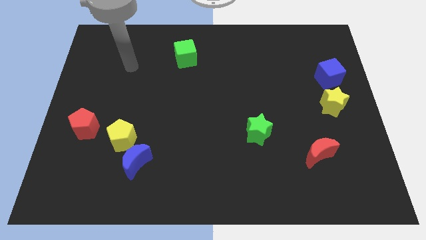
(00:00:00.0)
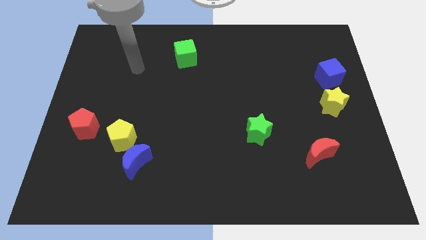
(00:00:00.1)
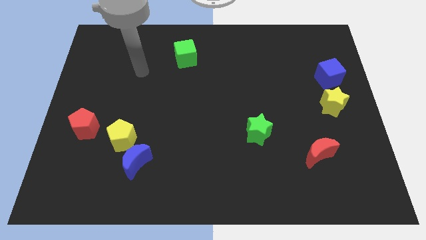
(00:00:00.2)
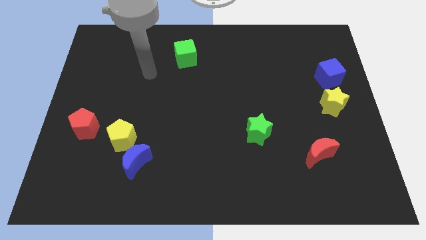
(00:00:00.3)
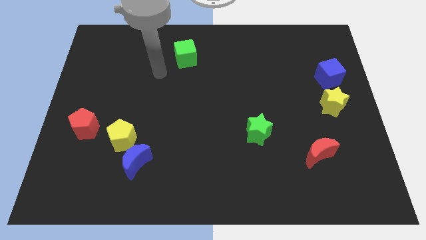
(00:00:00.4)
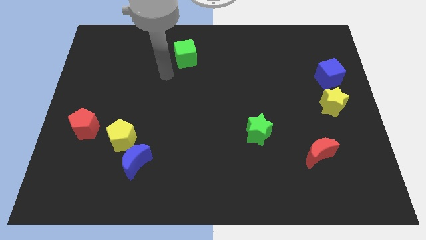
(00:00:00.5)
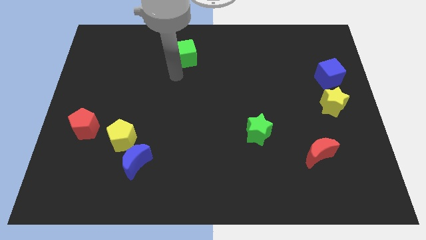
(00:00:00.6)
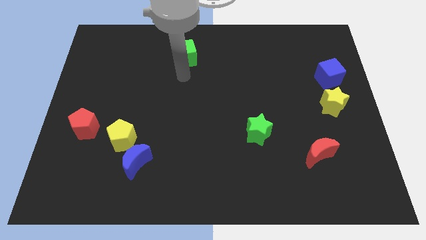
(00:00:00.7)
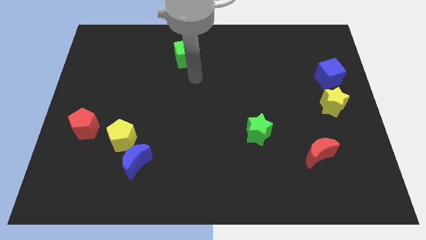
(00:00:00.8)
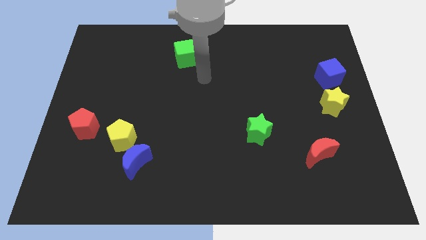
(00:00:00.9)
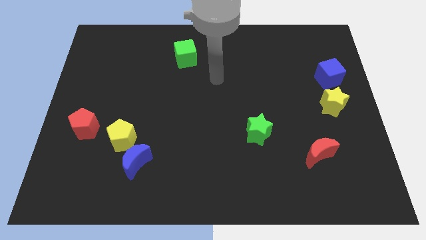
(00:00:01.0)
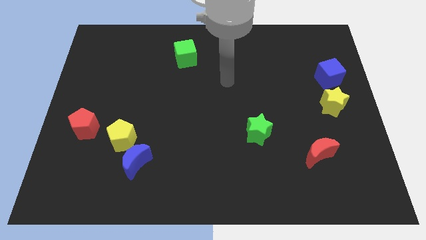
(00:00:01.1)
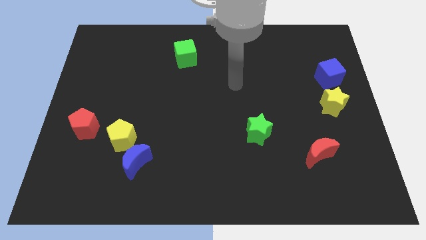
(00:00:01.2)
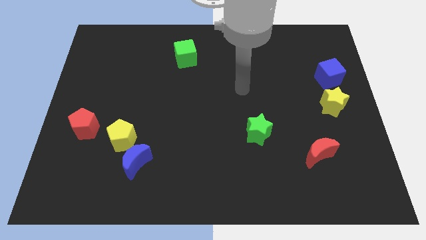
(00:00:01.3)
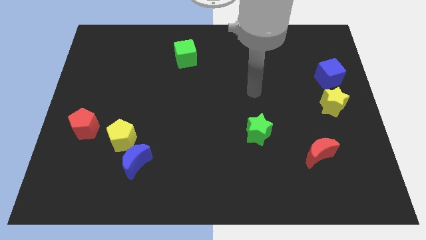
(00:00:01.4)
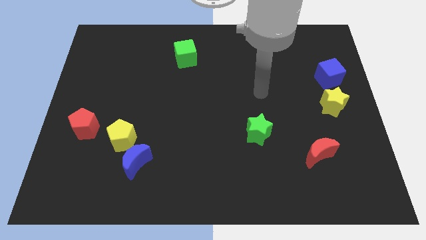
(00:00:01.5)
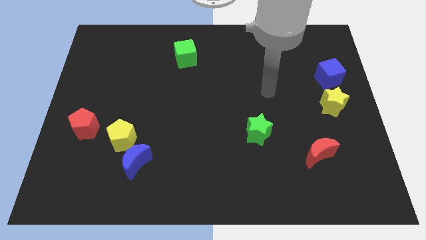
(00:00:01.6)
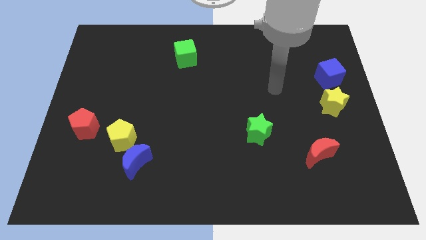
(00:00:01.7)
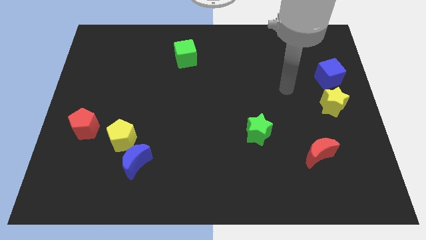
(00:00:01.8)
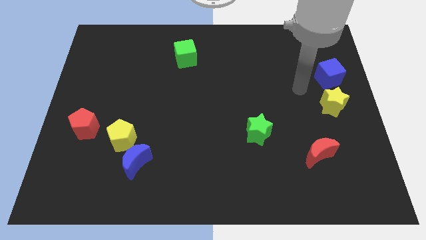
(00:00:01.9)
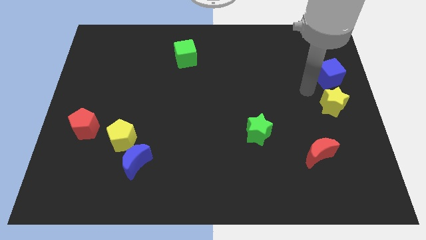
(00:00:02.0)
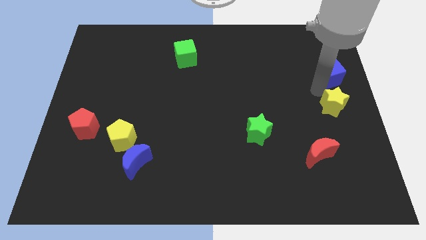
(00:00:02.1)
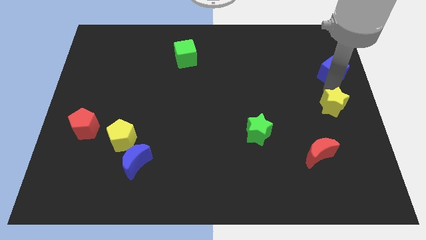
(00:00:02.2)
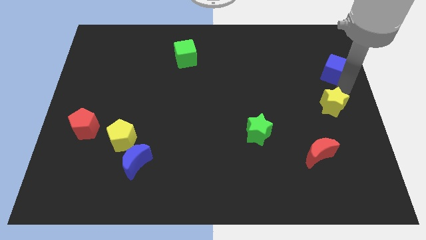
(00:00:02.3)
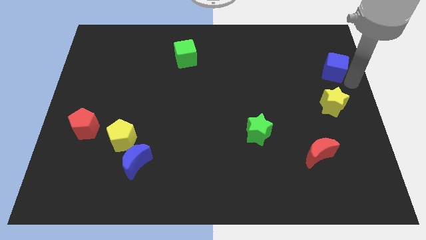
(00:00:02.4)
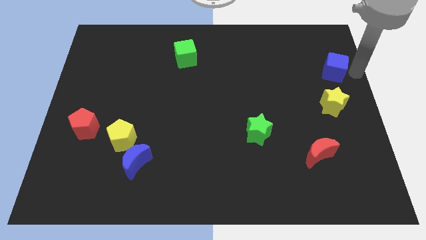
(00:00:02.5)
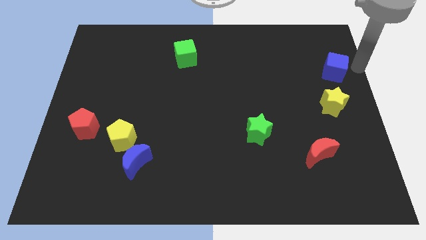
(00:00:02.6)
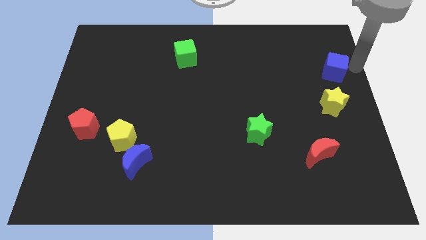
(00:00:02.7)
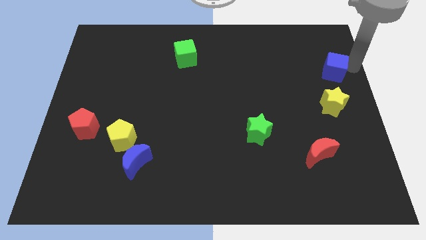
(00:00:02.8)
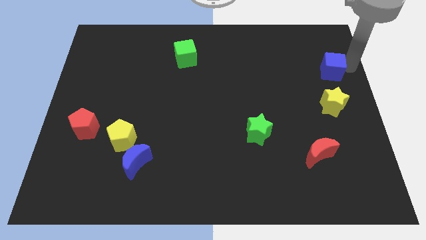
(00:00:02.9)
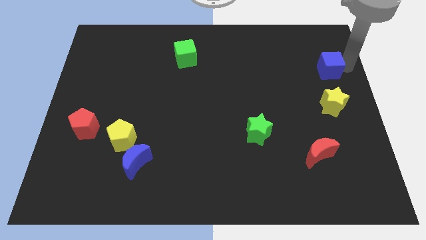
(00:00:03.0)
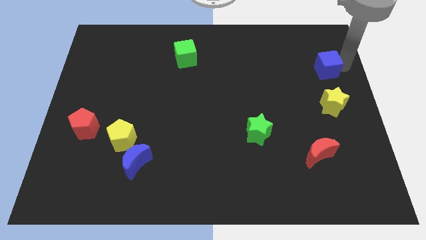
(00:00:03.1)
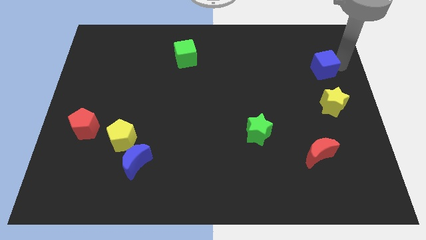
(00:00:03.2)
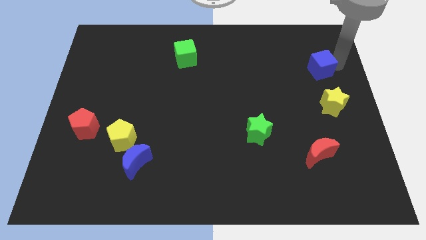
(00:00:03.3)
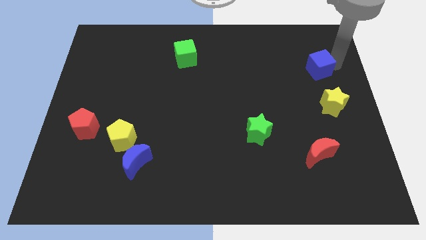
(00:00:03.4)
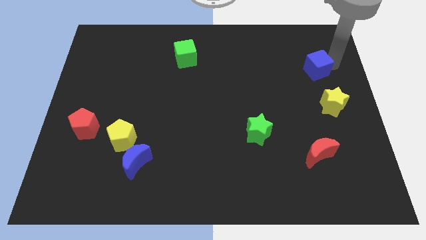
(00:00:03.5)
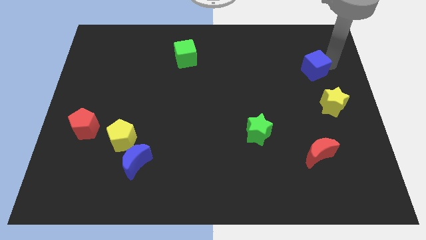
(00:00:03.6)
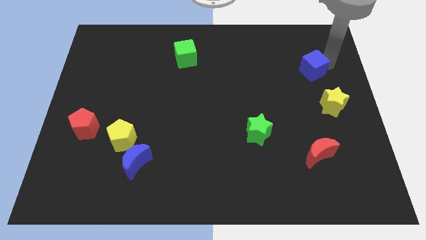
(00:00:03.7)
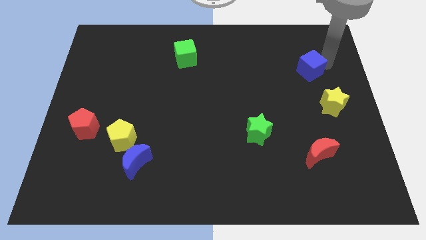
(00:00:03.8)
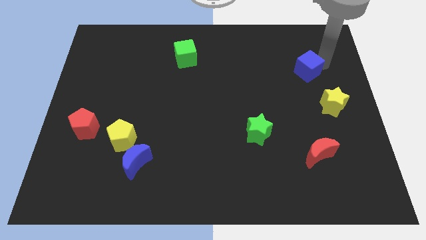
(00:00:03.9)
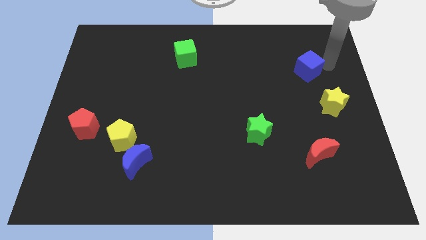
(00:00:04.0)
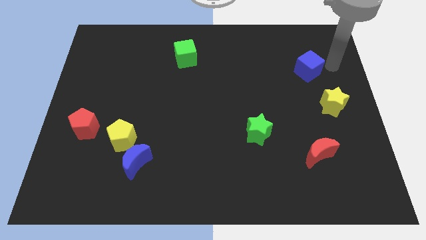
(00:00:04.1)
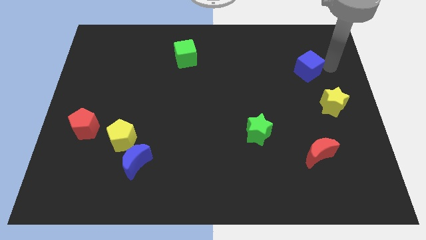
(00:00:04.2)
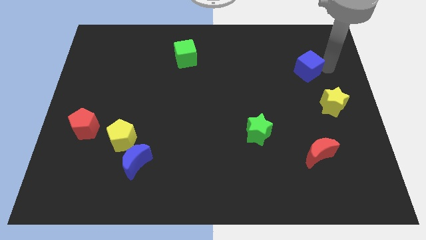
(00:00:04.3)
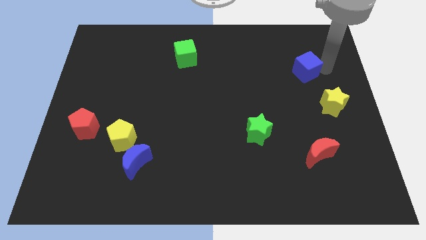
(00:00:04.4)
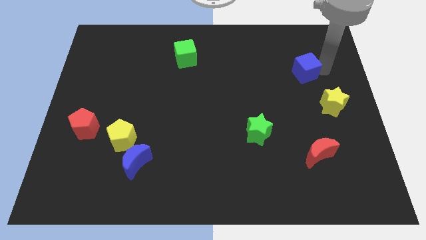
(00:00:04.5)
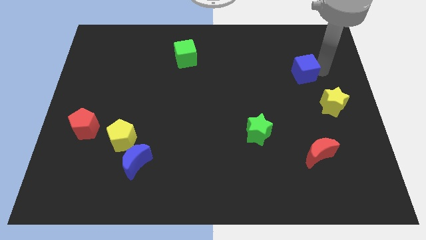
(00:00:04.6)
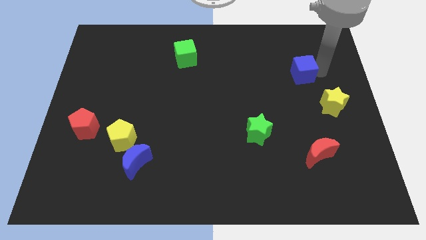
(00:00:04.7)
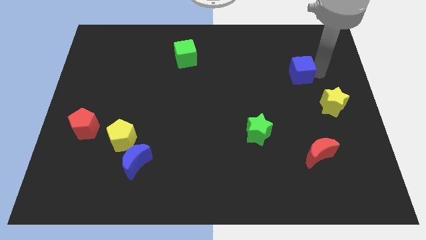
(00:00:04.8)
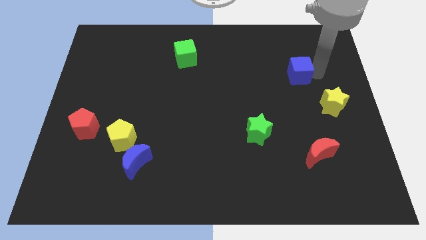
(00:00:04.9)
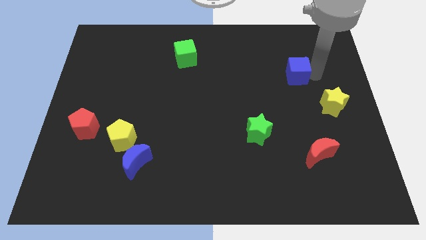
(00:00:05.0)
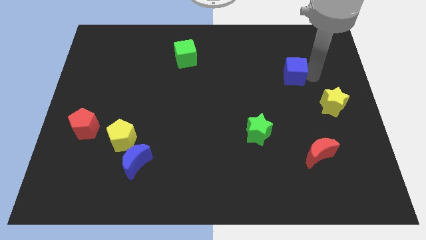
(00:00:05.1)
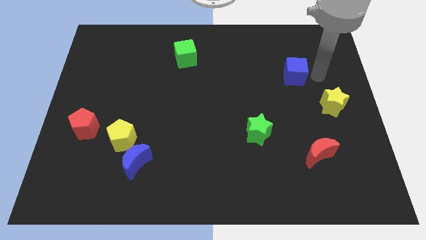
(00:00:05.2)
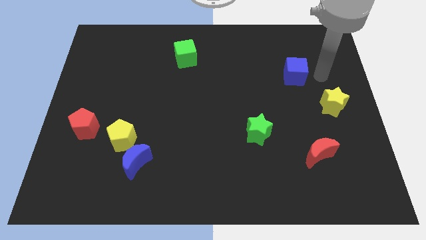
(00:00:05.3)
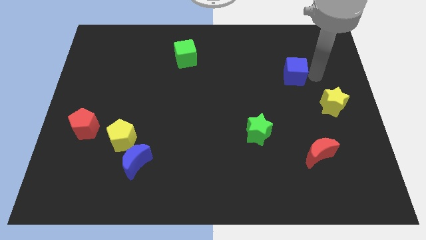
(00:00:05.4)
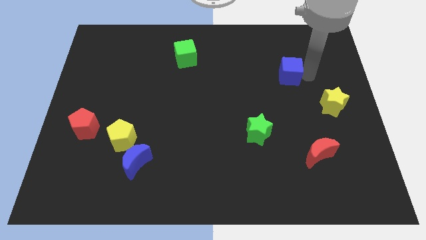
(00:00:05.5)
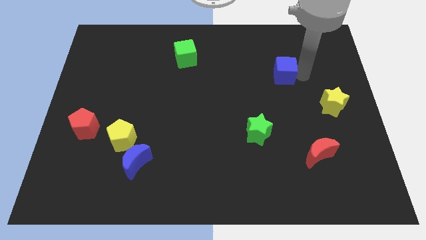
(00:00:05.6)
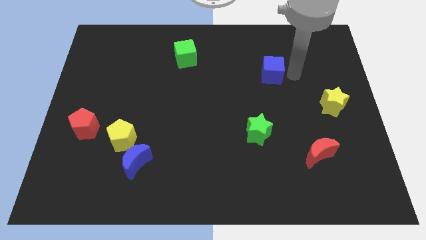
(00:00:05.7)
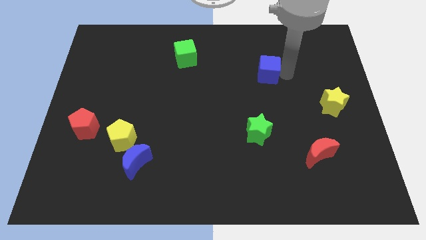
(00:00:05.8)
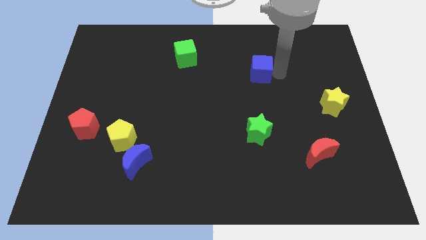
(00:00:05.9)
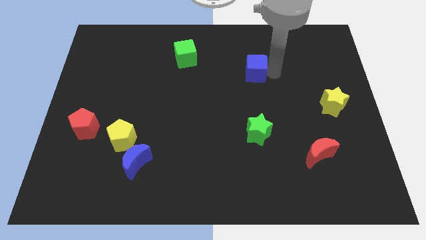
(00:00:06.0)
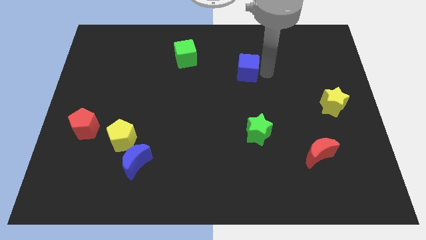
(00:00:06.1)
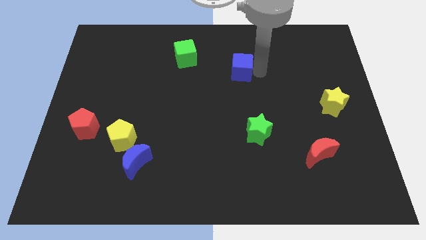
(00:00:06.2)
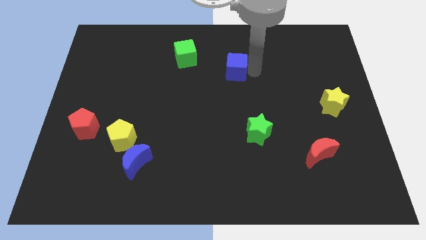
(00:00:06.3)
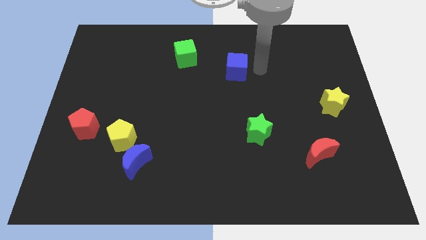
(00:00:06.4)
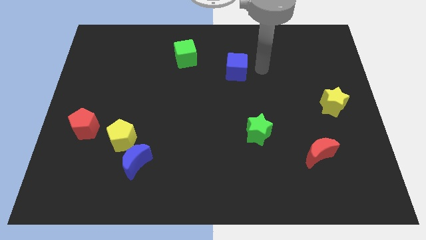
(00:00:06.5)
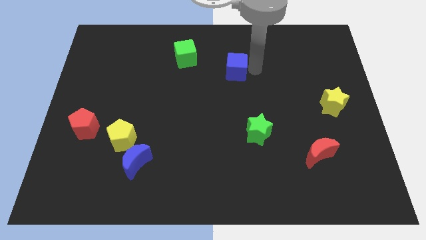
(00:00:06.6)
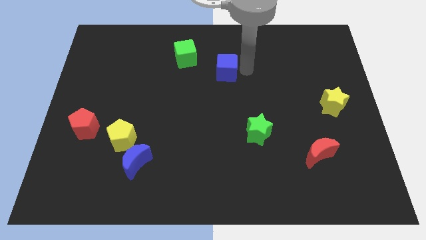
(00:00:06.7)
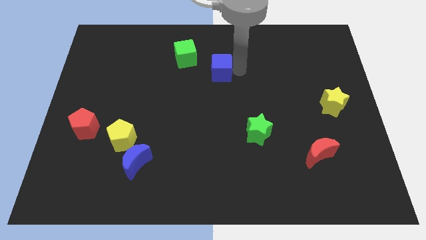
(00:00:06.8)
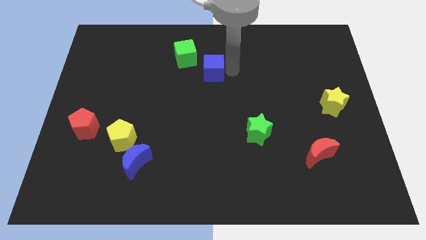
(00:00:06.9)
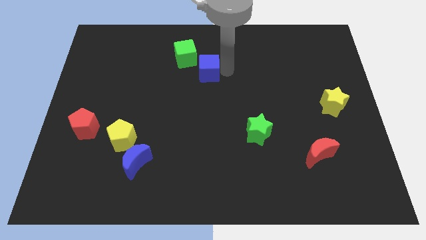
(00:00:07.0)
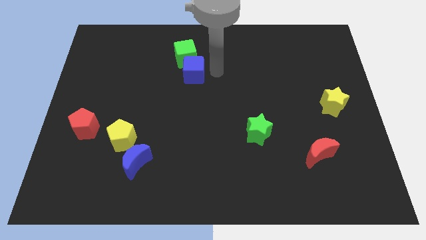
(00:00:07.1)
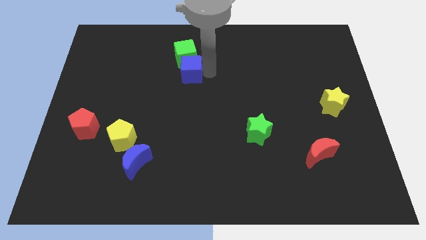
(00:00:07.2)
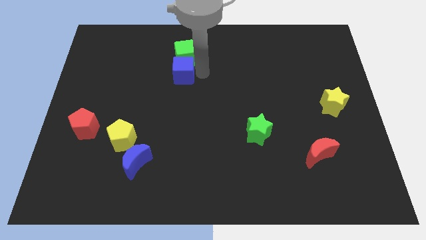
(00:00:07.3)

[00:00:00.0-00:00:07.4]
move the blue cube to the bottom left of the green cube
